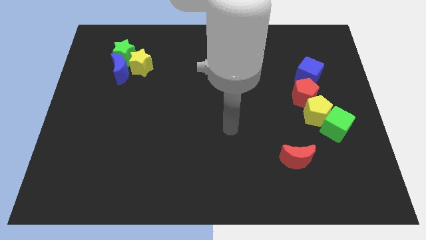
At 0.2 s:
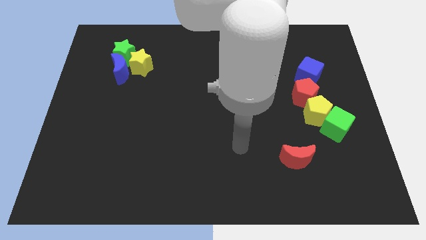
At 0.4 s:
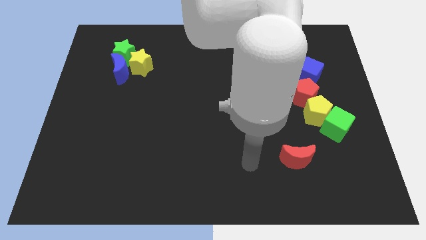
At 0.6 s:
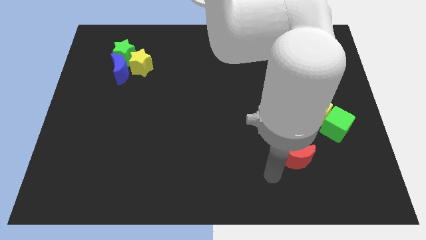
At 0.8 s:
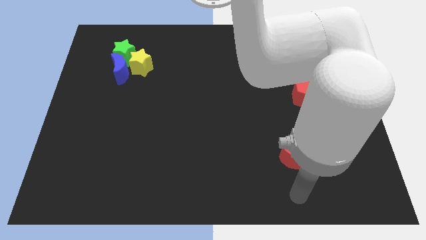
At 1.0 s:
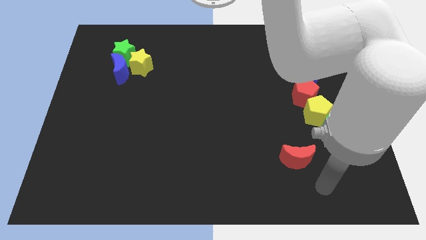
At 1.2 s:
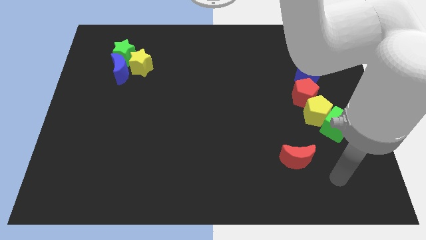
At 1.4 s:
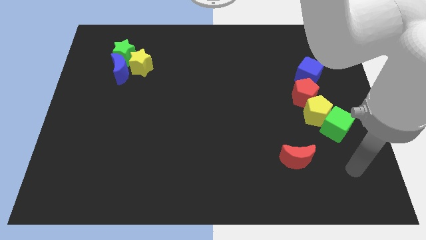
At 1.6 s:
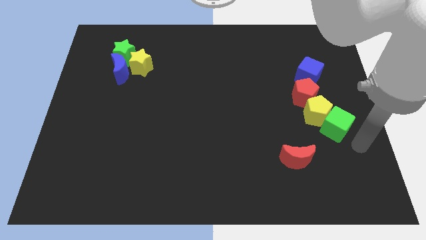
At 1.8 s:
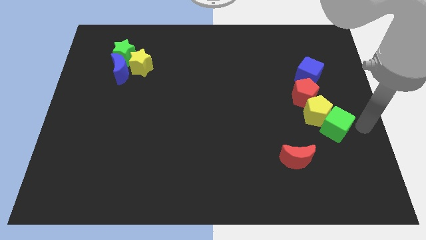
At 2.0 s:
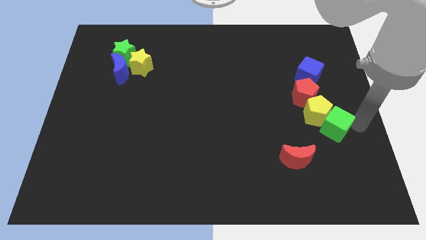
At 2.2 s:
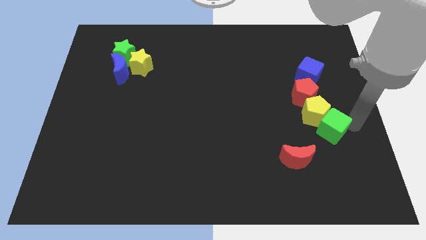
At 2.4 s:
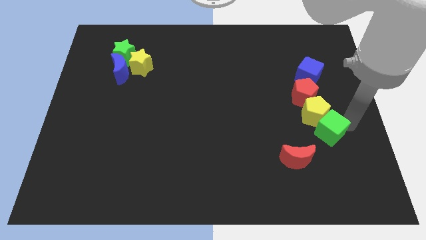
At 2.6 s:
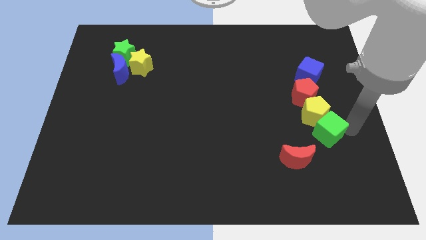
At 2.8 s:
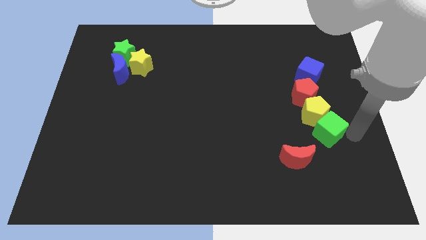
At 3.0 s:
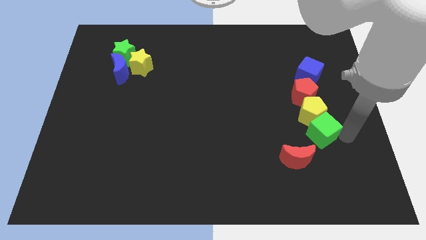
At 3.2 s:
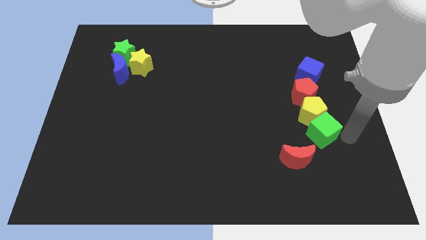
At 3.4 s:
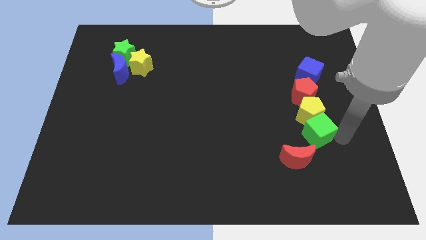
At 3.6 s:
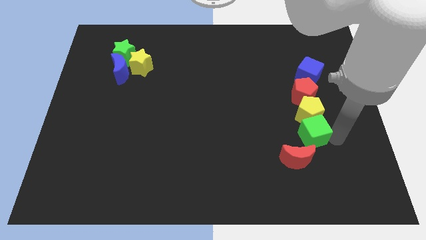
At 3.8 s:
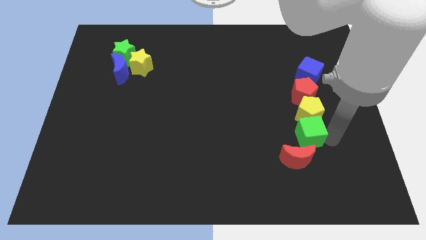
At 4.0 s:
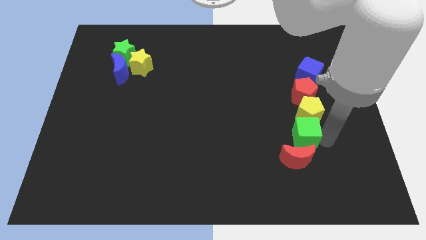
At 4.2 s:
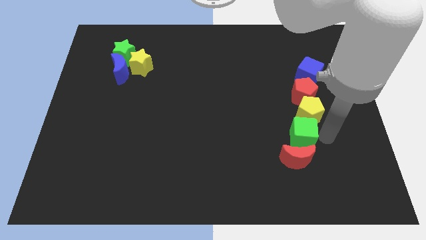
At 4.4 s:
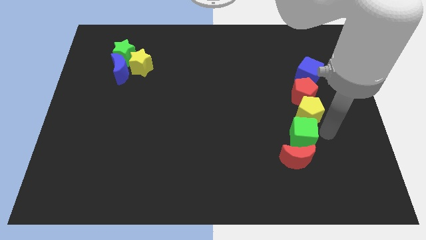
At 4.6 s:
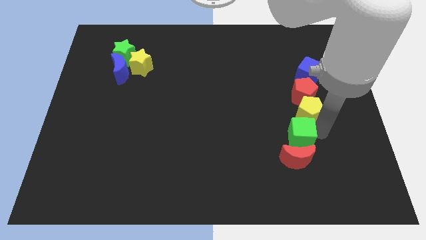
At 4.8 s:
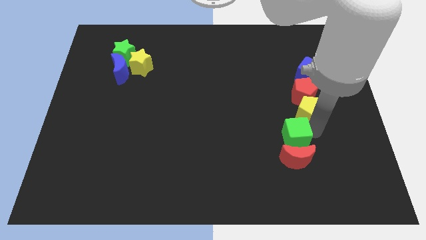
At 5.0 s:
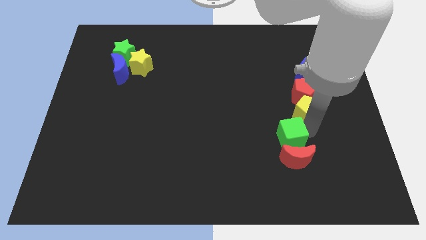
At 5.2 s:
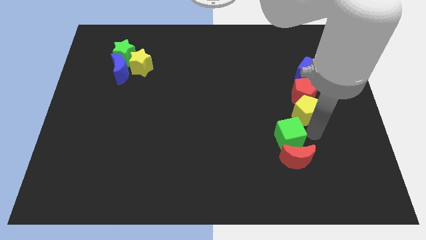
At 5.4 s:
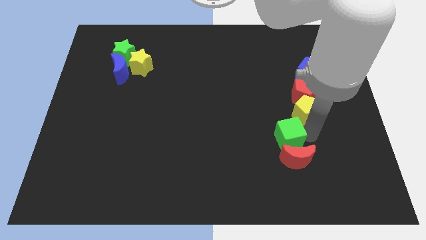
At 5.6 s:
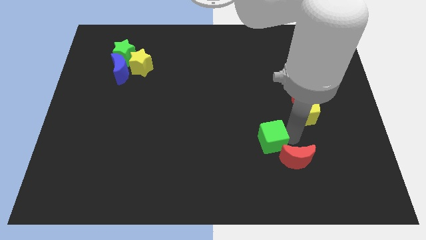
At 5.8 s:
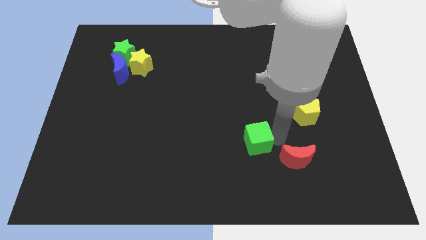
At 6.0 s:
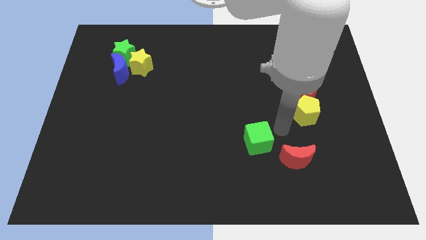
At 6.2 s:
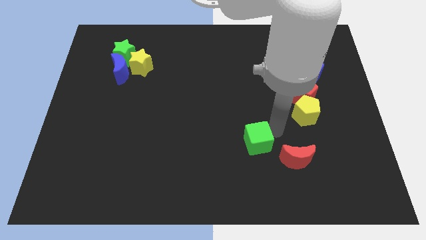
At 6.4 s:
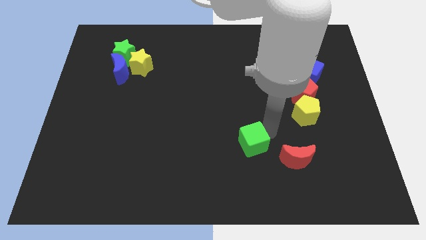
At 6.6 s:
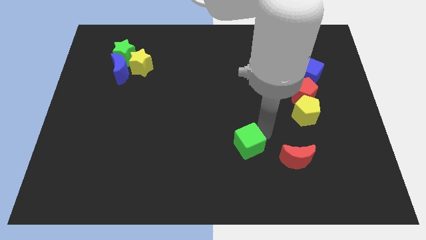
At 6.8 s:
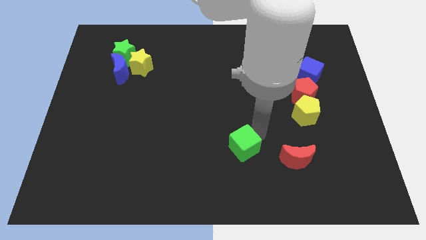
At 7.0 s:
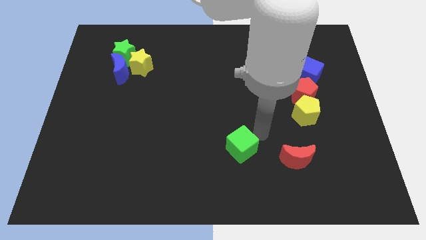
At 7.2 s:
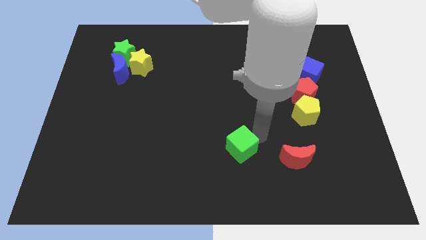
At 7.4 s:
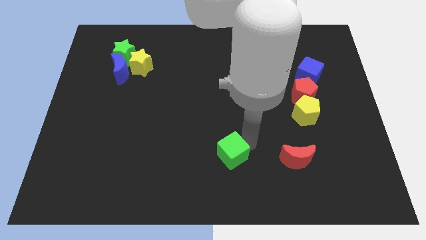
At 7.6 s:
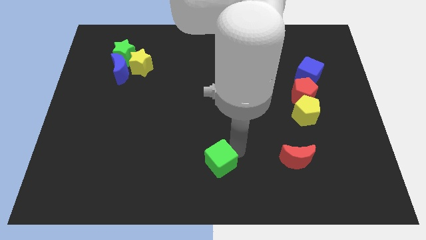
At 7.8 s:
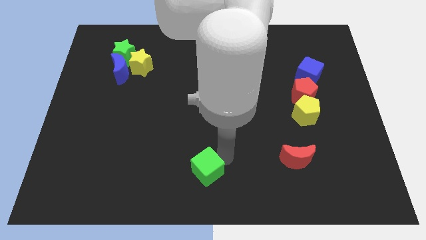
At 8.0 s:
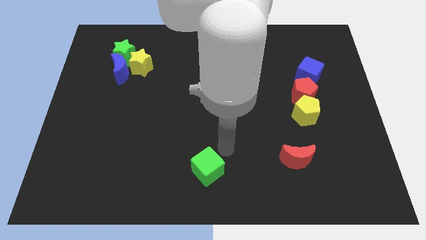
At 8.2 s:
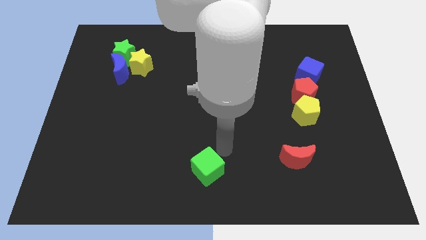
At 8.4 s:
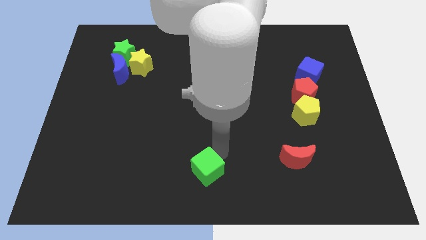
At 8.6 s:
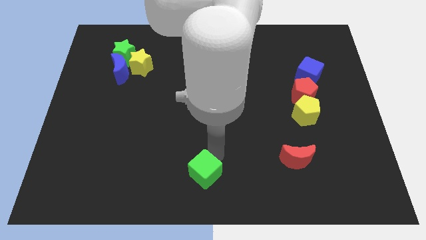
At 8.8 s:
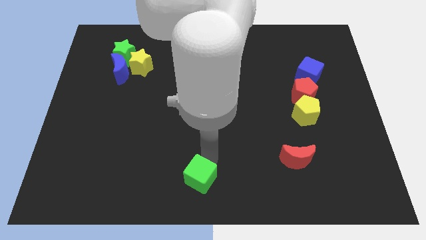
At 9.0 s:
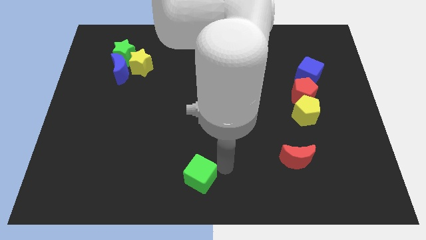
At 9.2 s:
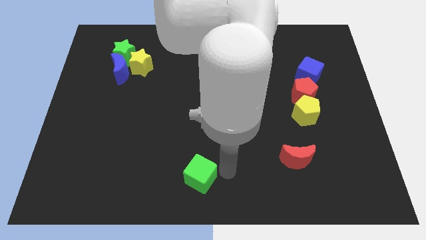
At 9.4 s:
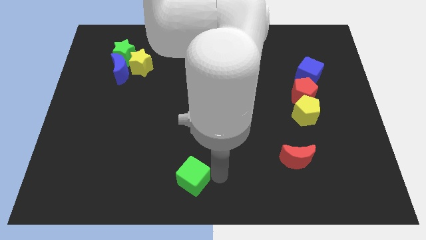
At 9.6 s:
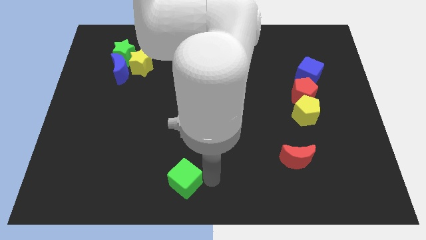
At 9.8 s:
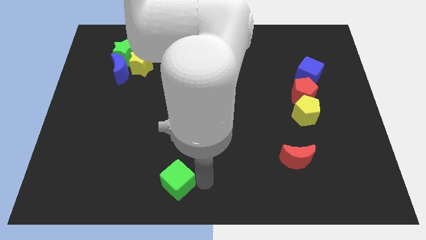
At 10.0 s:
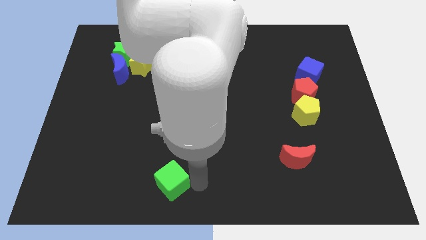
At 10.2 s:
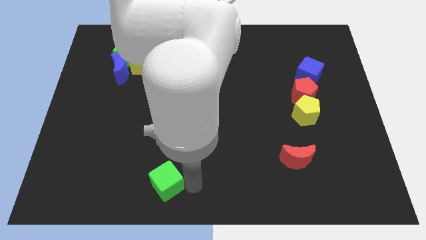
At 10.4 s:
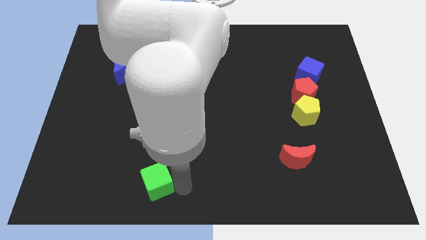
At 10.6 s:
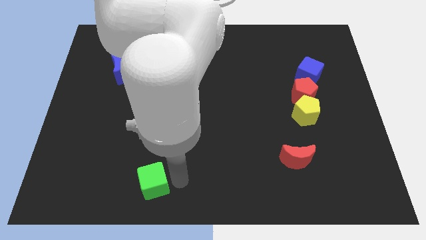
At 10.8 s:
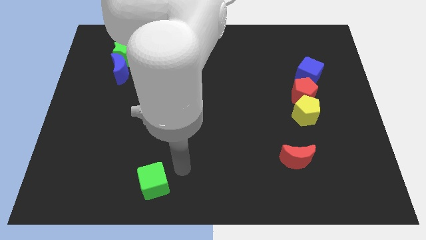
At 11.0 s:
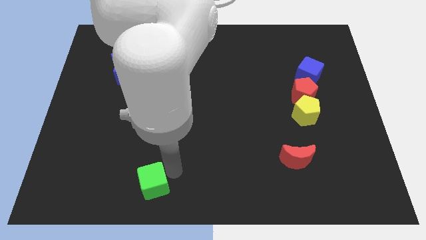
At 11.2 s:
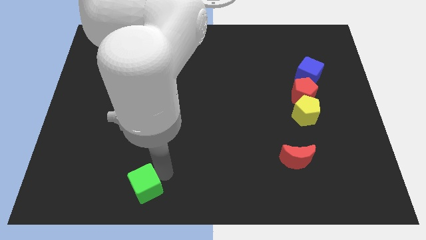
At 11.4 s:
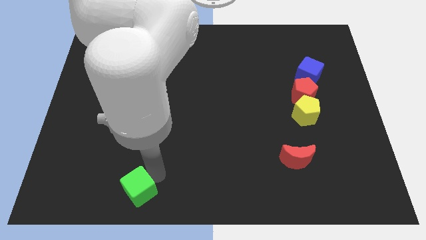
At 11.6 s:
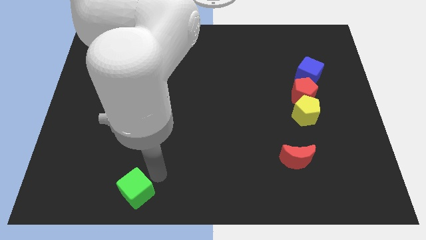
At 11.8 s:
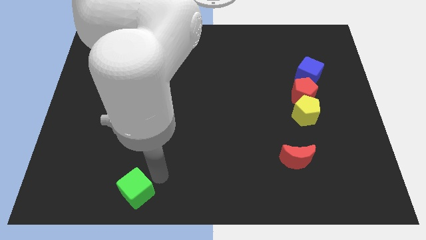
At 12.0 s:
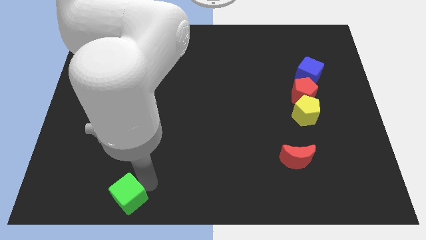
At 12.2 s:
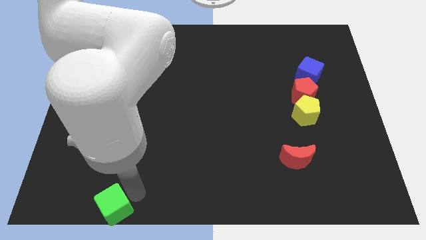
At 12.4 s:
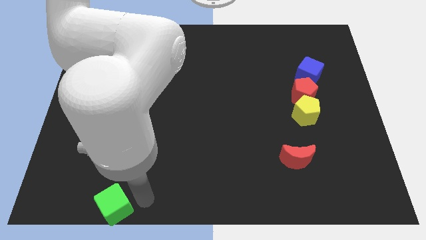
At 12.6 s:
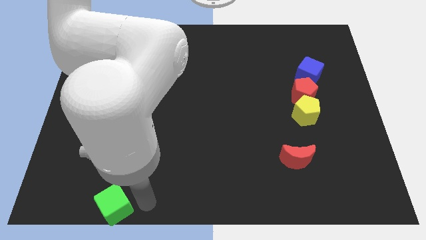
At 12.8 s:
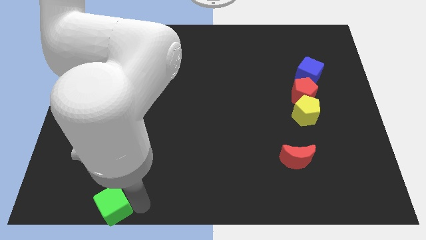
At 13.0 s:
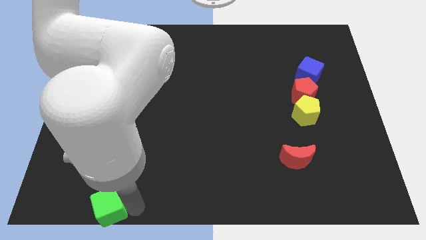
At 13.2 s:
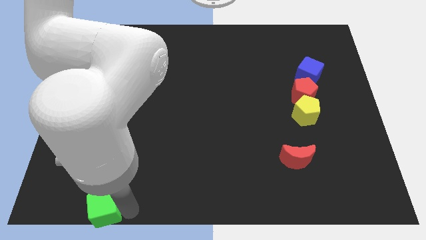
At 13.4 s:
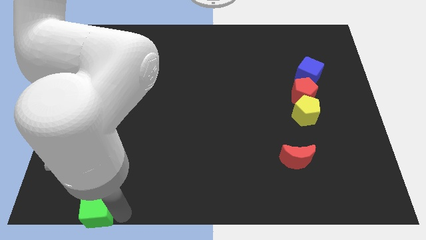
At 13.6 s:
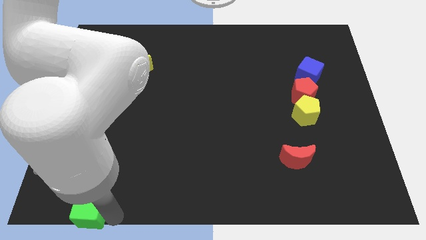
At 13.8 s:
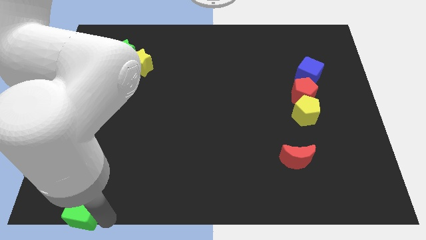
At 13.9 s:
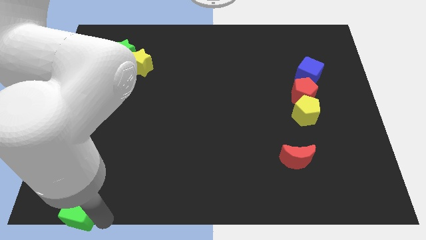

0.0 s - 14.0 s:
slide the green cube to the bottom left corner
